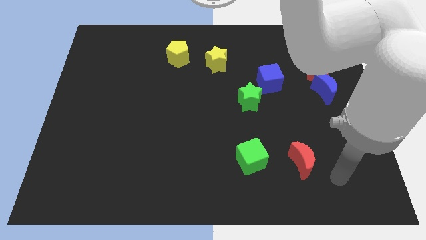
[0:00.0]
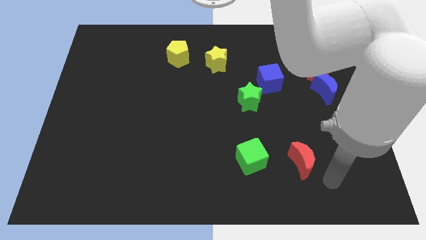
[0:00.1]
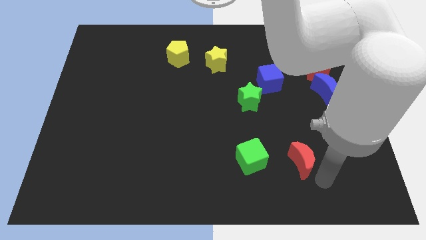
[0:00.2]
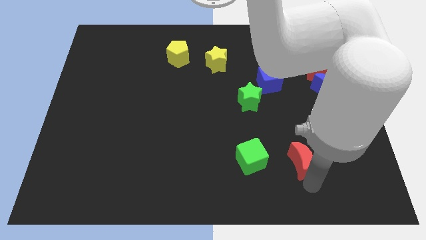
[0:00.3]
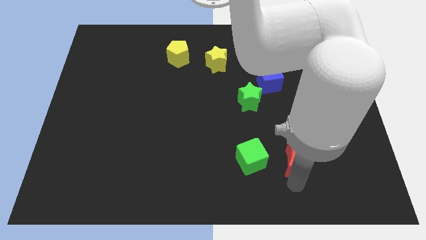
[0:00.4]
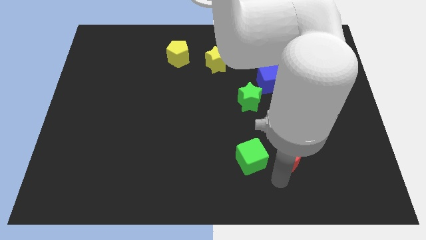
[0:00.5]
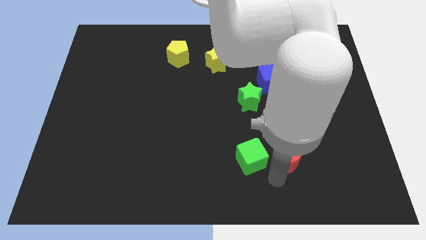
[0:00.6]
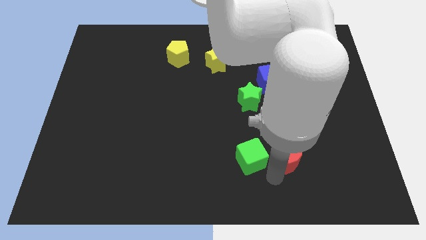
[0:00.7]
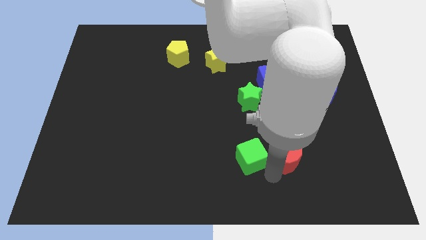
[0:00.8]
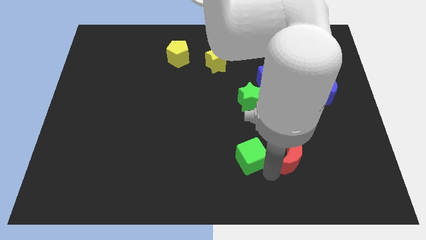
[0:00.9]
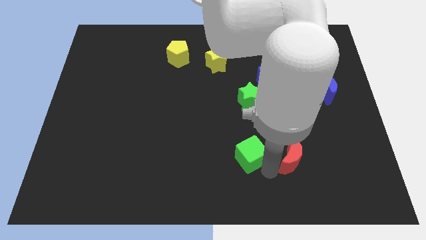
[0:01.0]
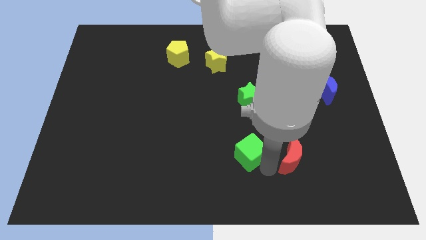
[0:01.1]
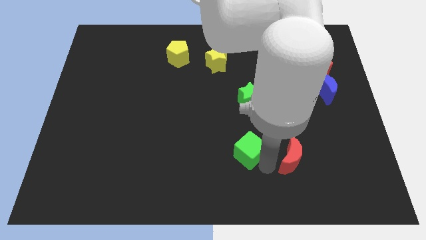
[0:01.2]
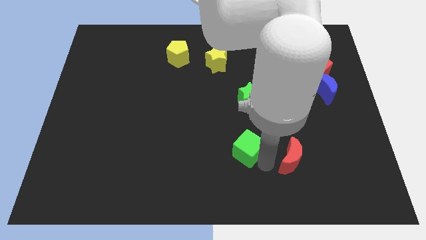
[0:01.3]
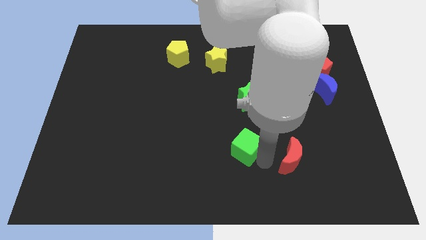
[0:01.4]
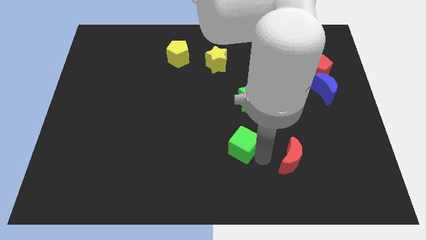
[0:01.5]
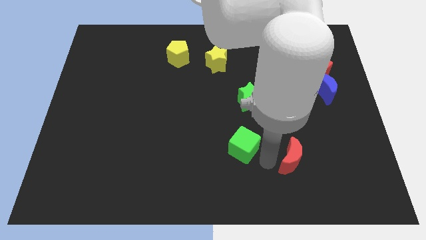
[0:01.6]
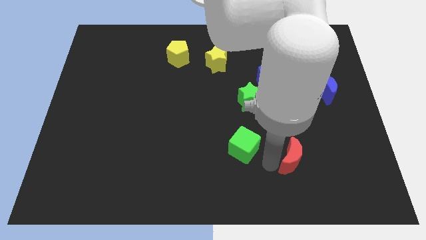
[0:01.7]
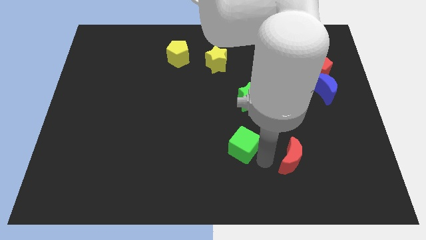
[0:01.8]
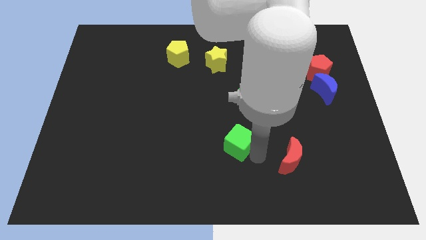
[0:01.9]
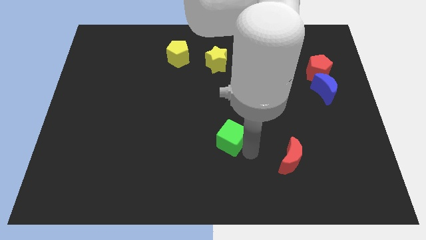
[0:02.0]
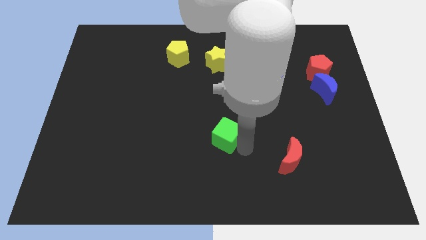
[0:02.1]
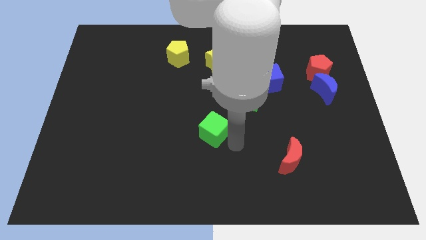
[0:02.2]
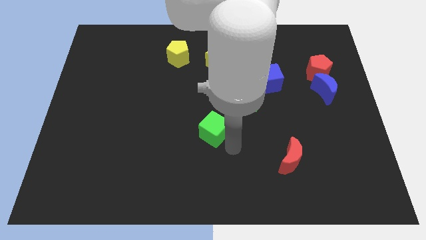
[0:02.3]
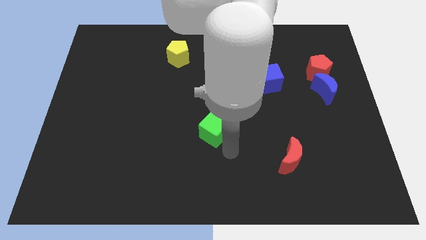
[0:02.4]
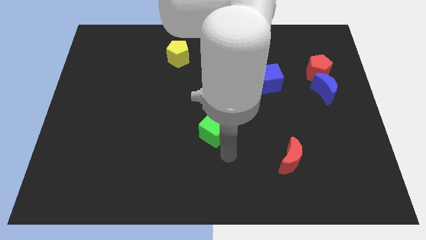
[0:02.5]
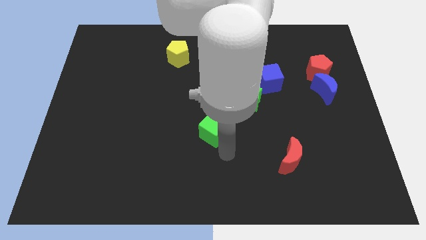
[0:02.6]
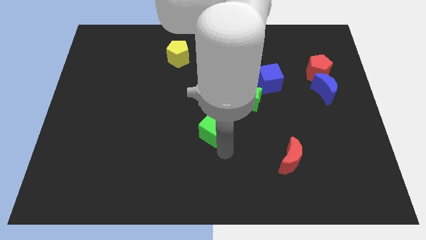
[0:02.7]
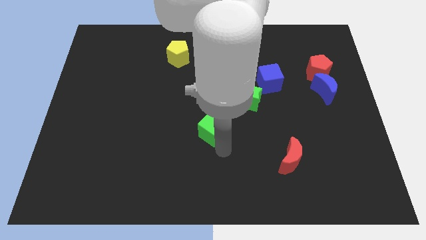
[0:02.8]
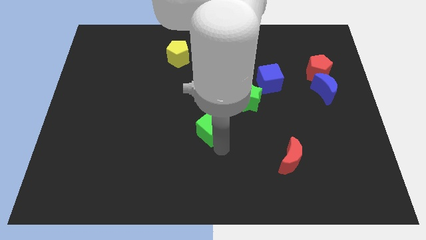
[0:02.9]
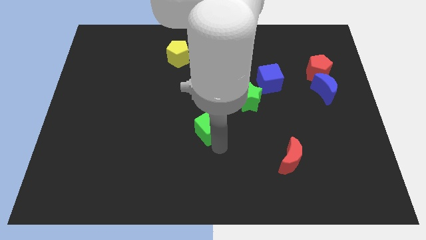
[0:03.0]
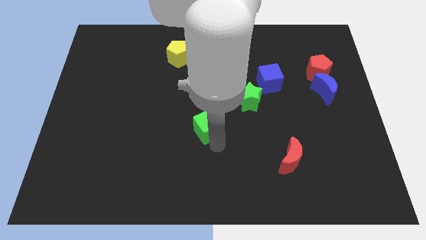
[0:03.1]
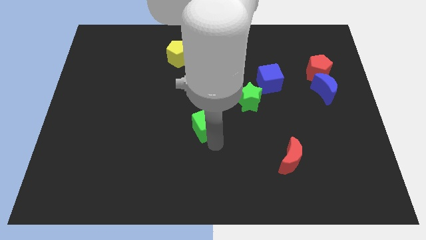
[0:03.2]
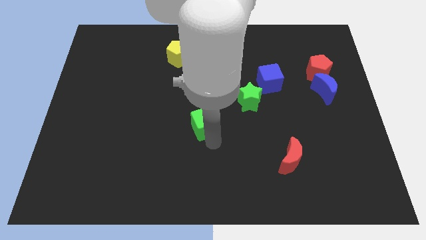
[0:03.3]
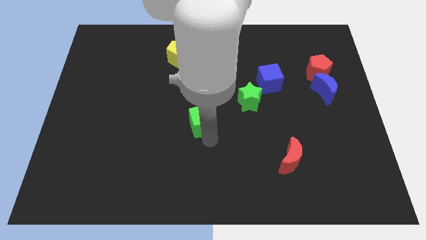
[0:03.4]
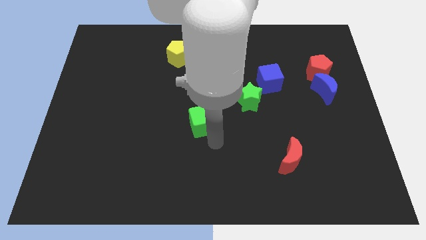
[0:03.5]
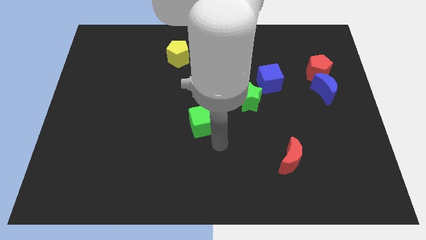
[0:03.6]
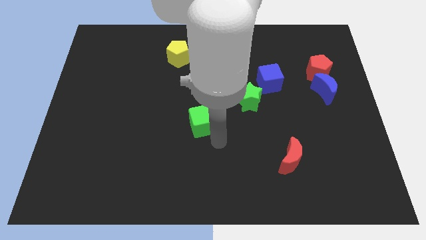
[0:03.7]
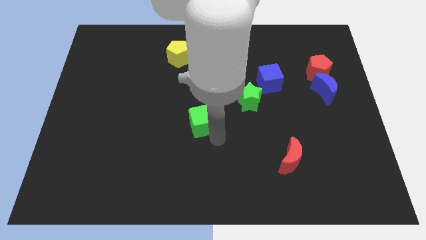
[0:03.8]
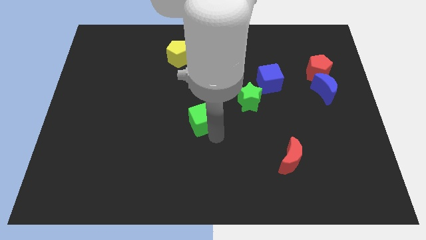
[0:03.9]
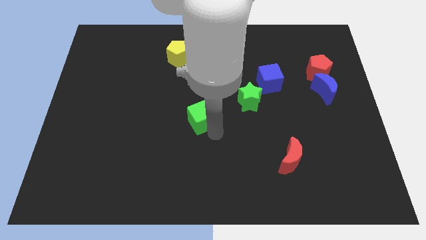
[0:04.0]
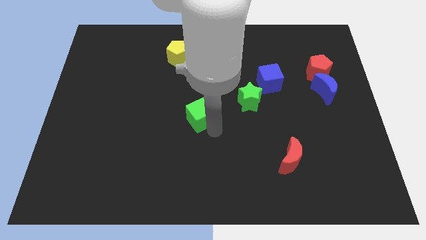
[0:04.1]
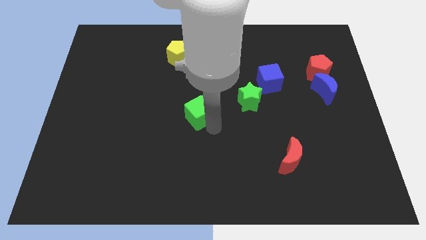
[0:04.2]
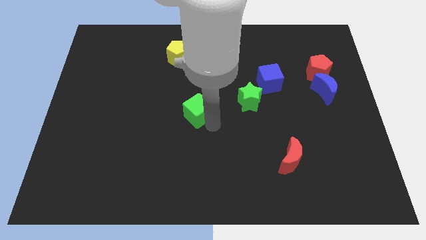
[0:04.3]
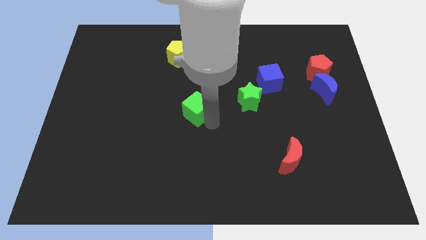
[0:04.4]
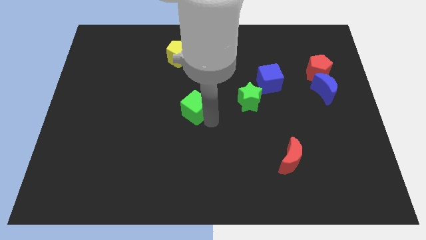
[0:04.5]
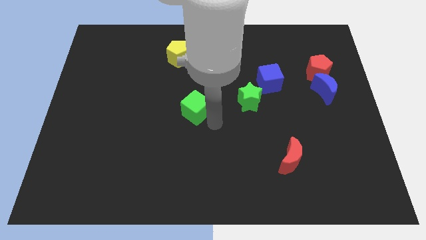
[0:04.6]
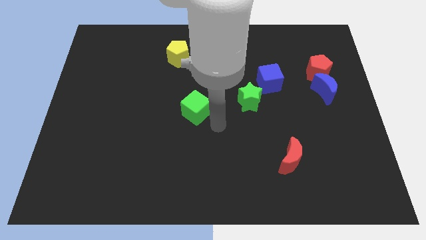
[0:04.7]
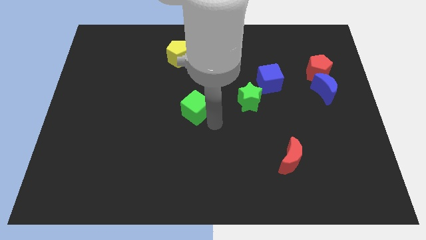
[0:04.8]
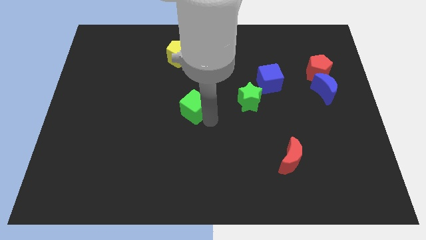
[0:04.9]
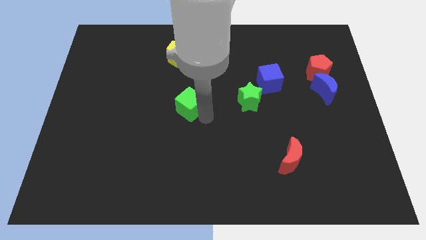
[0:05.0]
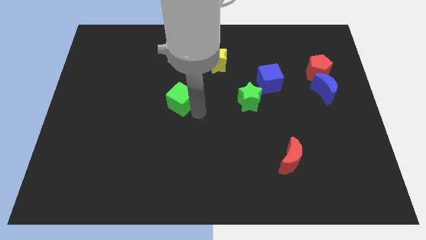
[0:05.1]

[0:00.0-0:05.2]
slide the green cube upwards and then left

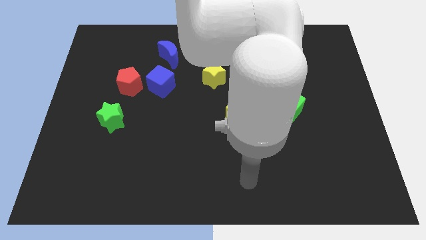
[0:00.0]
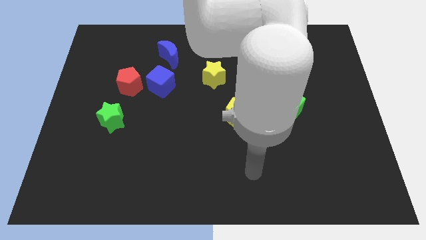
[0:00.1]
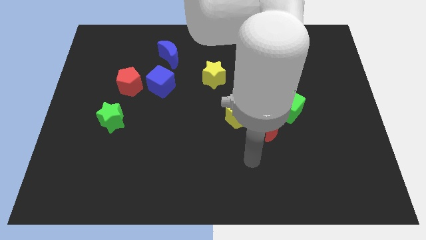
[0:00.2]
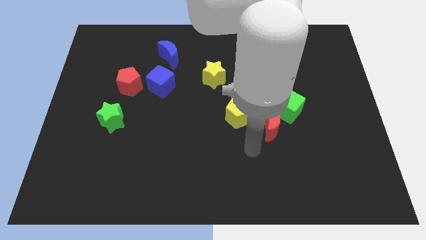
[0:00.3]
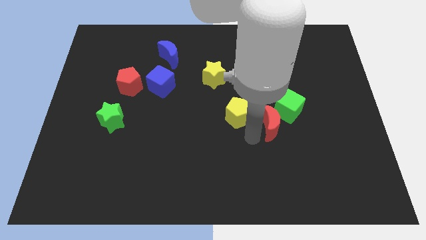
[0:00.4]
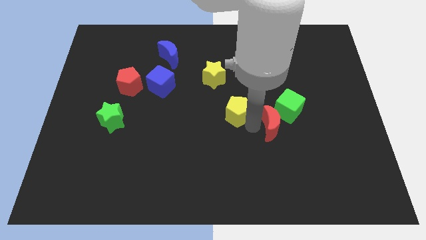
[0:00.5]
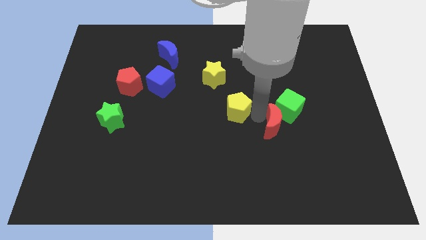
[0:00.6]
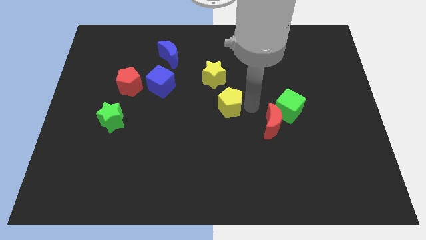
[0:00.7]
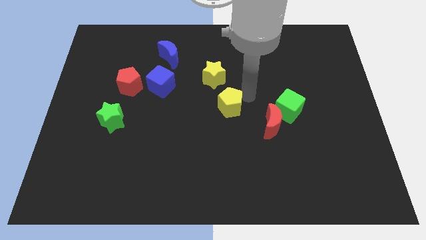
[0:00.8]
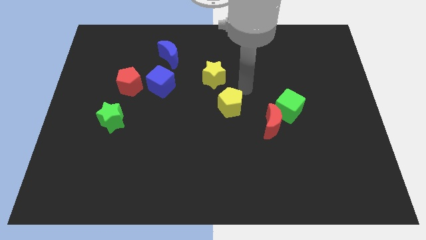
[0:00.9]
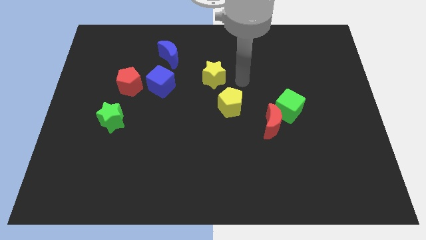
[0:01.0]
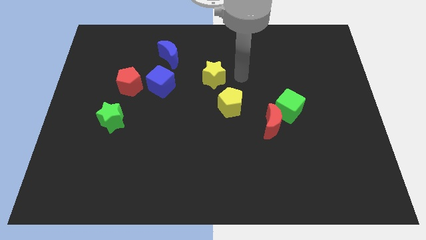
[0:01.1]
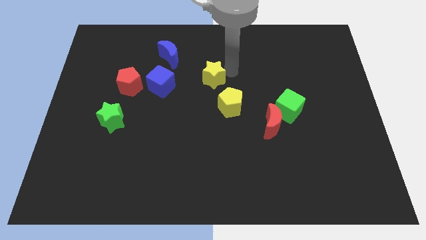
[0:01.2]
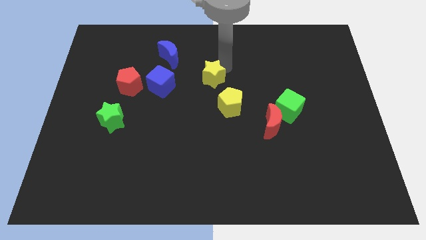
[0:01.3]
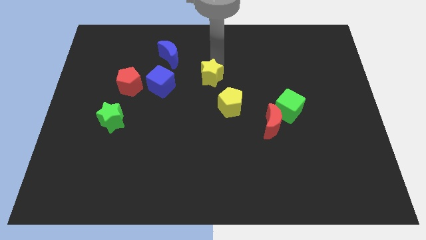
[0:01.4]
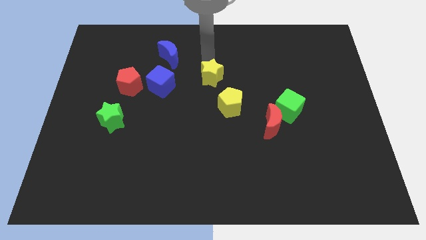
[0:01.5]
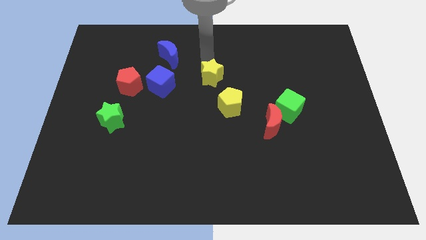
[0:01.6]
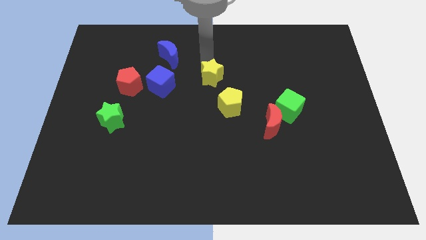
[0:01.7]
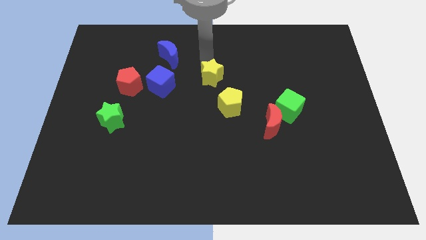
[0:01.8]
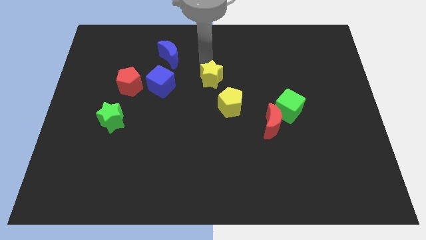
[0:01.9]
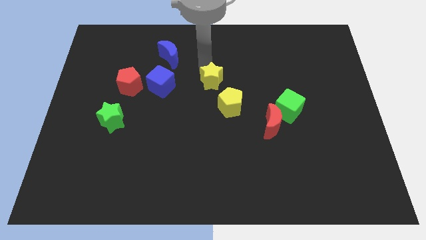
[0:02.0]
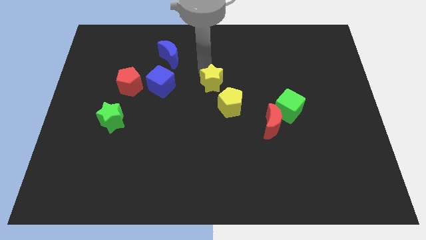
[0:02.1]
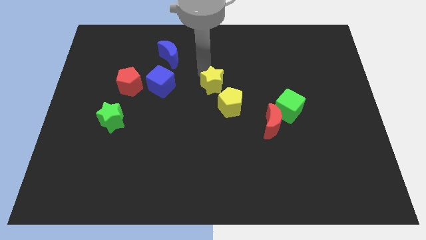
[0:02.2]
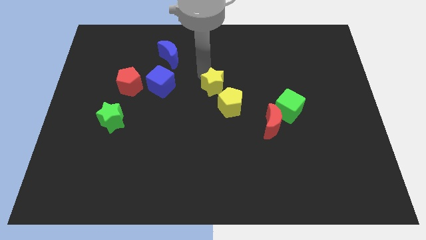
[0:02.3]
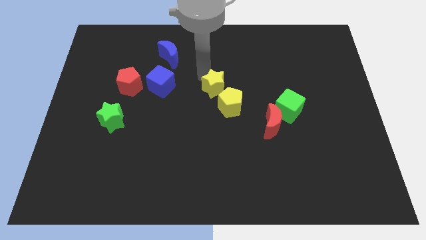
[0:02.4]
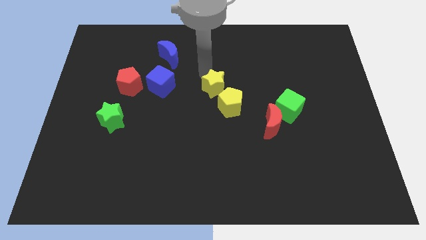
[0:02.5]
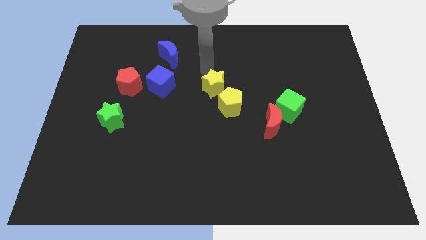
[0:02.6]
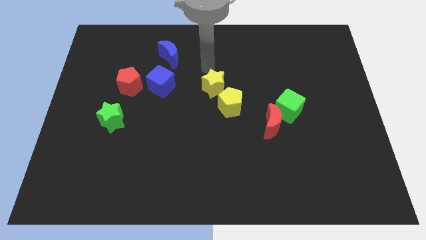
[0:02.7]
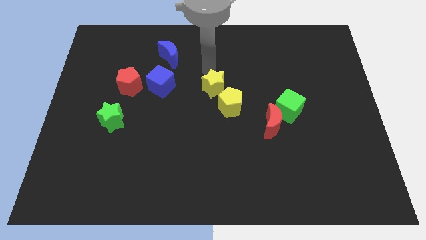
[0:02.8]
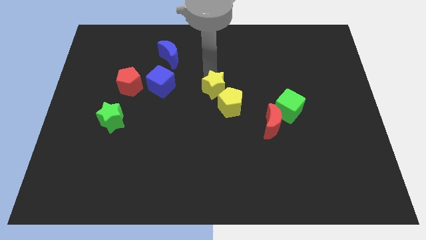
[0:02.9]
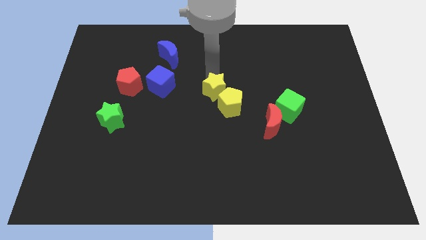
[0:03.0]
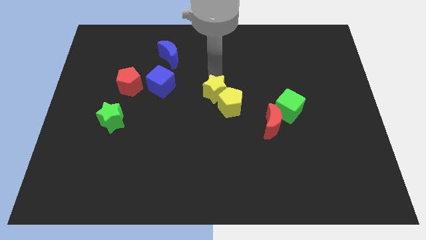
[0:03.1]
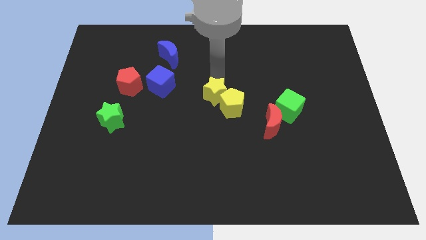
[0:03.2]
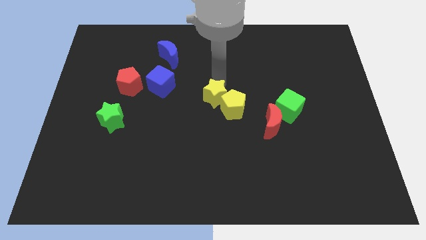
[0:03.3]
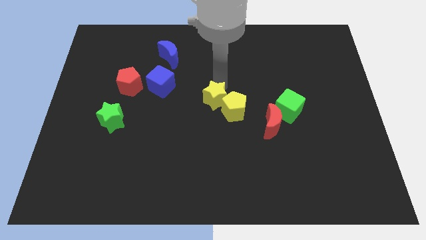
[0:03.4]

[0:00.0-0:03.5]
push the yellow star downwards a little bit
